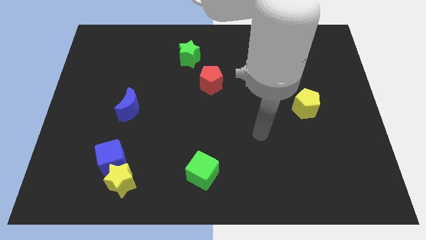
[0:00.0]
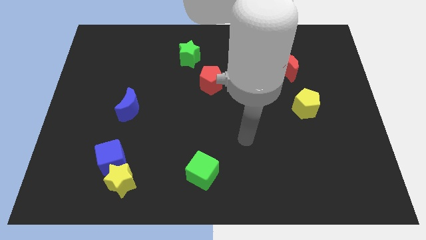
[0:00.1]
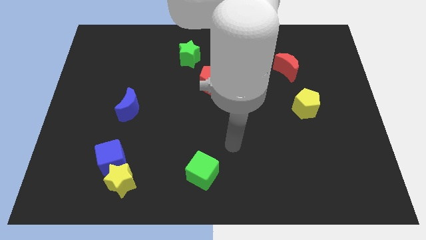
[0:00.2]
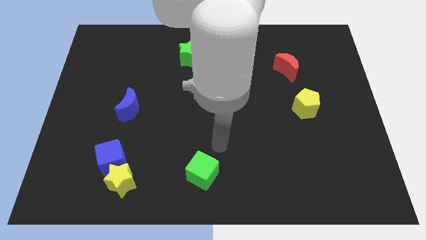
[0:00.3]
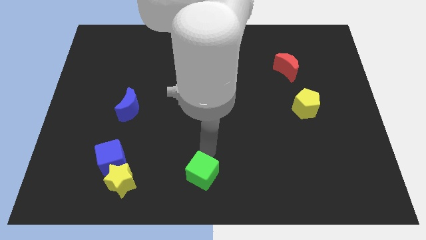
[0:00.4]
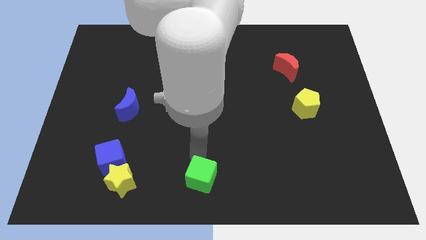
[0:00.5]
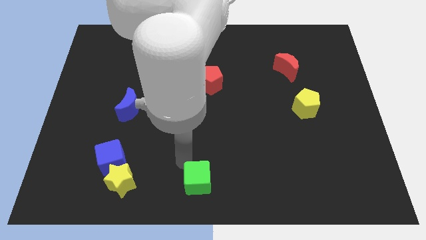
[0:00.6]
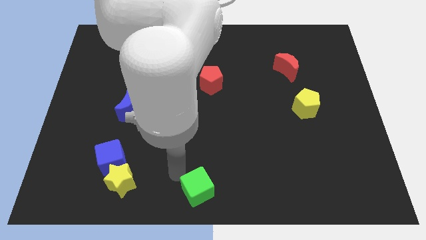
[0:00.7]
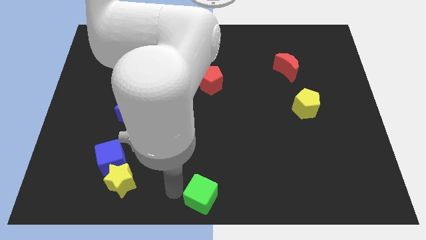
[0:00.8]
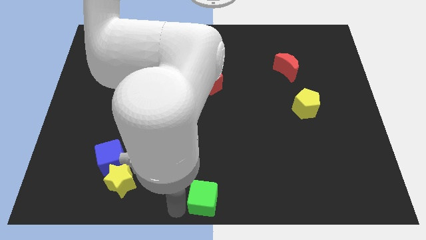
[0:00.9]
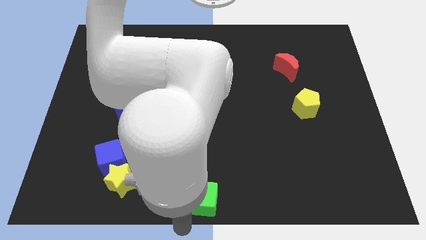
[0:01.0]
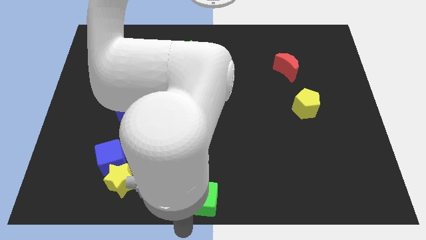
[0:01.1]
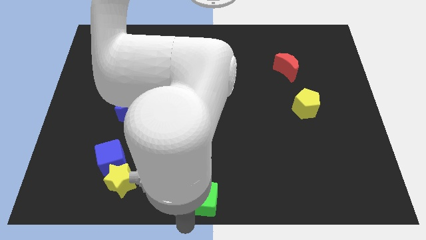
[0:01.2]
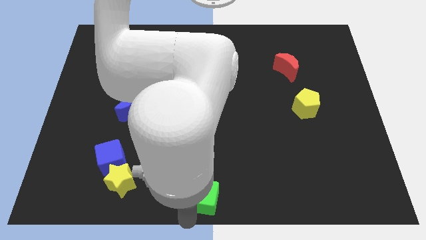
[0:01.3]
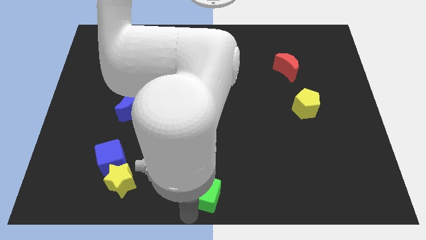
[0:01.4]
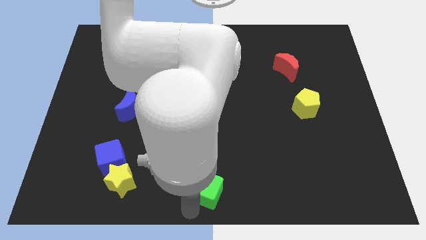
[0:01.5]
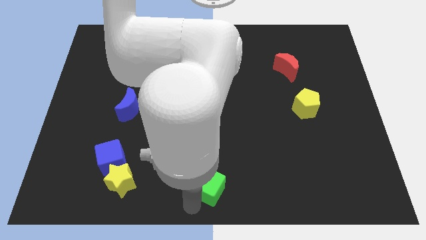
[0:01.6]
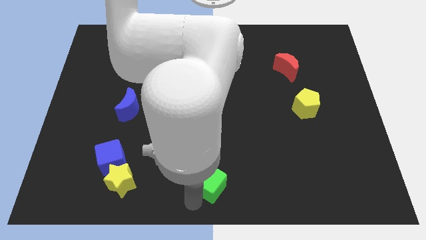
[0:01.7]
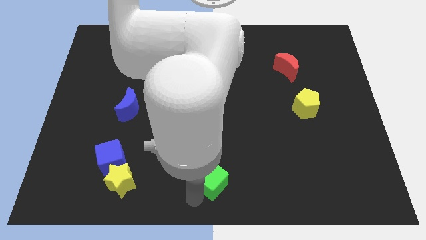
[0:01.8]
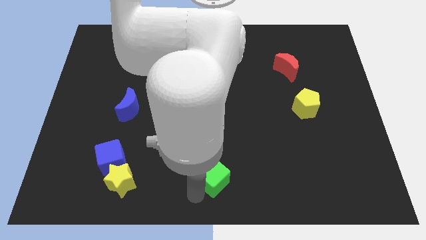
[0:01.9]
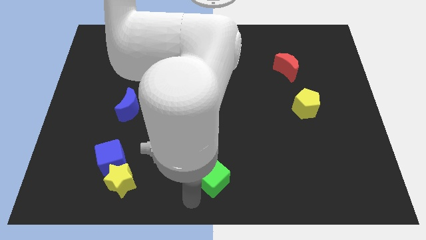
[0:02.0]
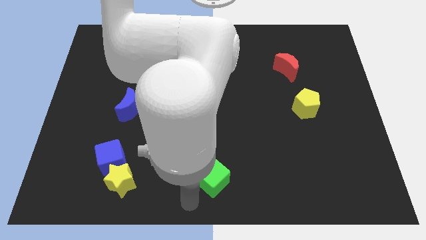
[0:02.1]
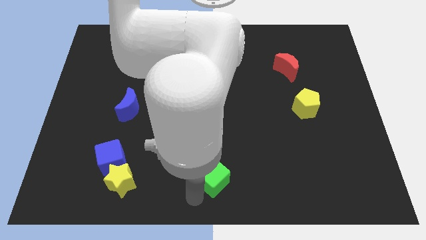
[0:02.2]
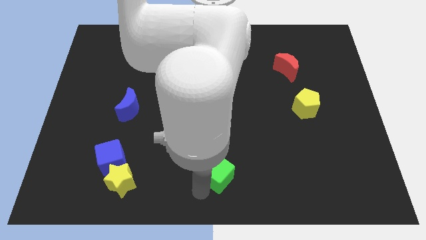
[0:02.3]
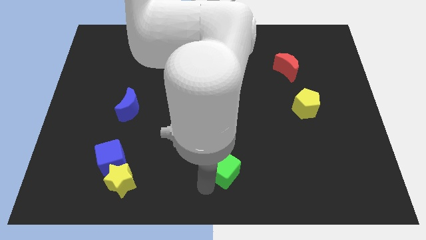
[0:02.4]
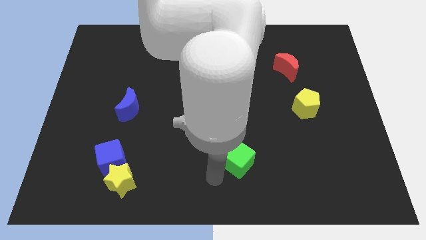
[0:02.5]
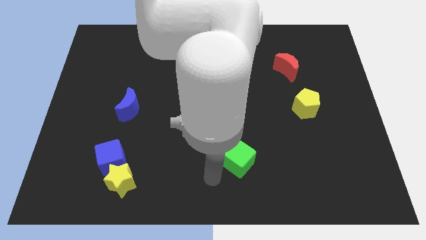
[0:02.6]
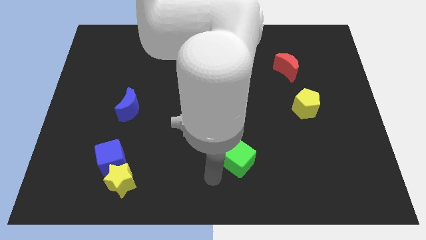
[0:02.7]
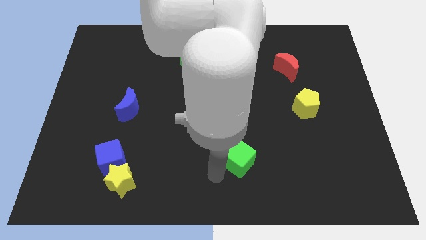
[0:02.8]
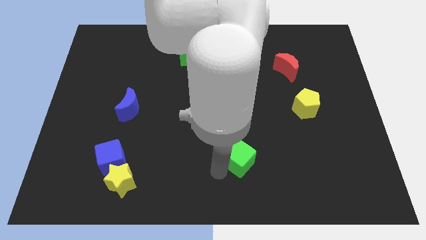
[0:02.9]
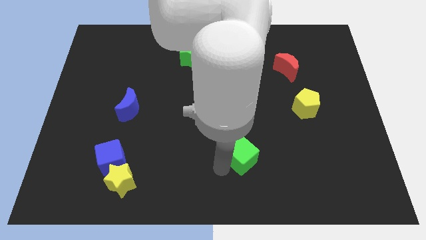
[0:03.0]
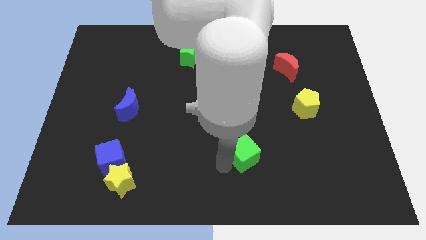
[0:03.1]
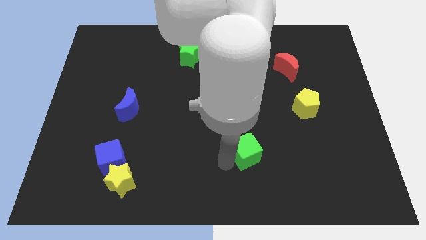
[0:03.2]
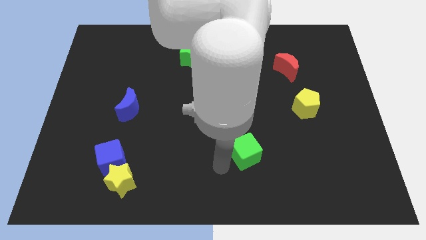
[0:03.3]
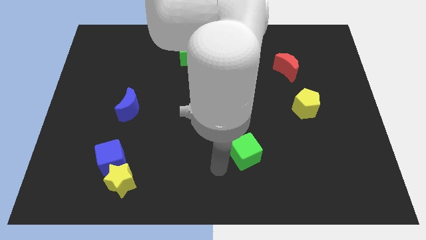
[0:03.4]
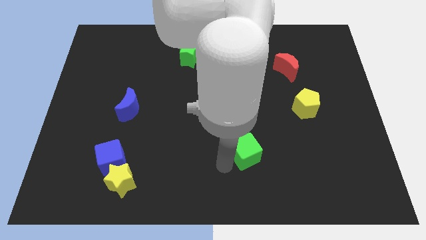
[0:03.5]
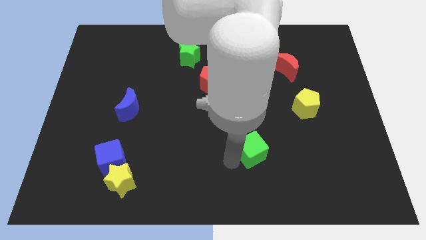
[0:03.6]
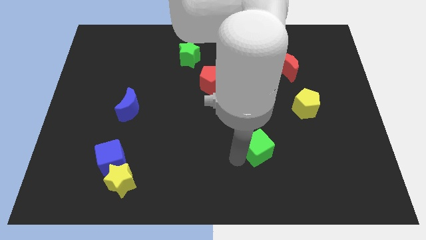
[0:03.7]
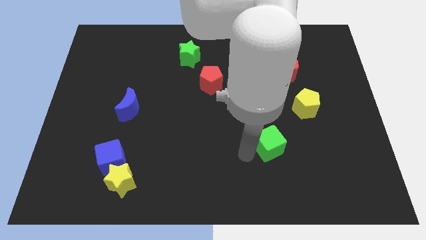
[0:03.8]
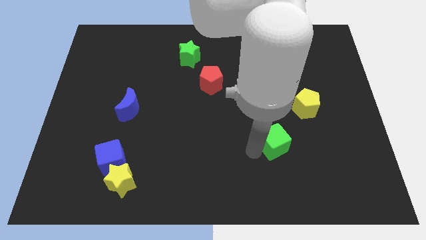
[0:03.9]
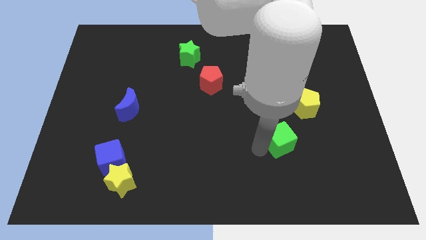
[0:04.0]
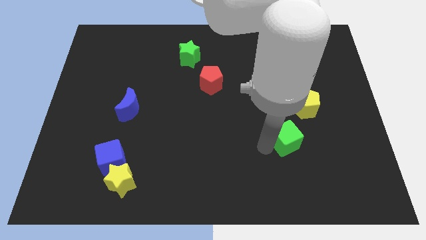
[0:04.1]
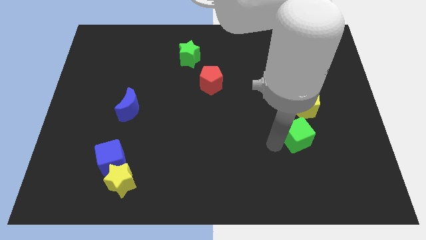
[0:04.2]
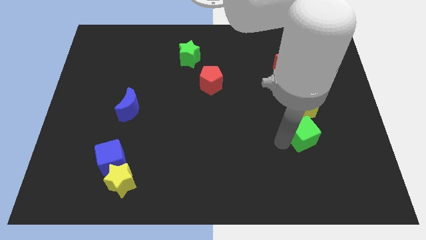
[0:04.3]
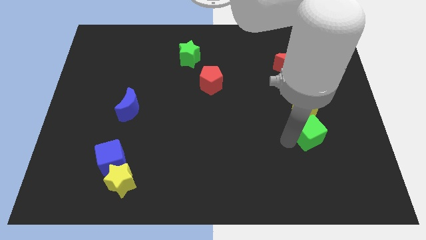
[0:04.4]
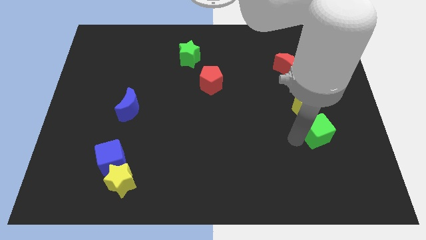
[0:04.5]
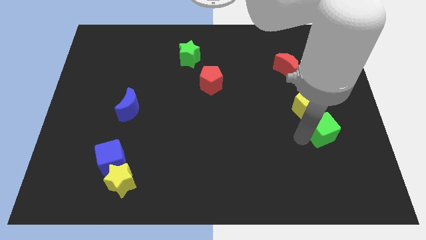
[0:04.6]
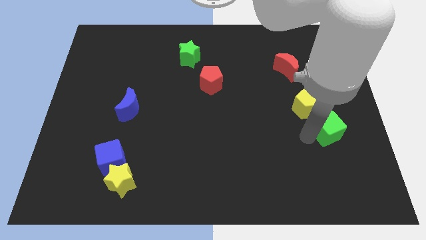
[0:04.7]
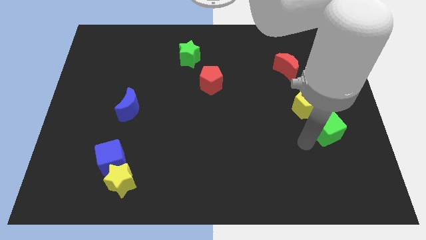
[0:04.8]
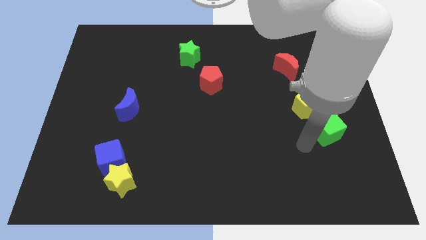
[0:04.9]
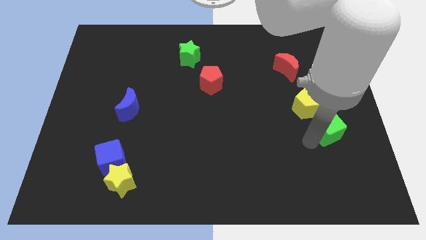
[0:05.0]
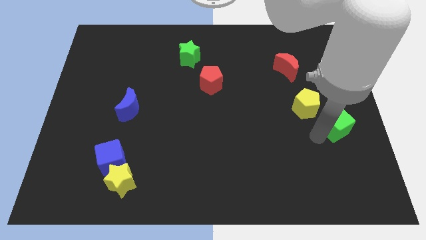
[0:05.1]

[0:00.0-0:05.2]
slide the green cube to the right side

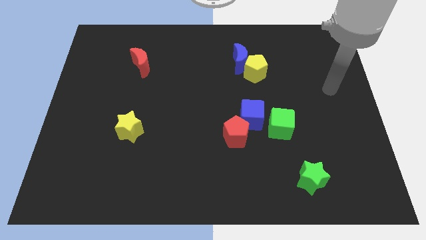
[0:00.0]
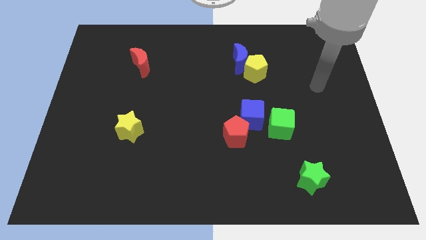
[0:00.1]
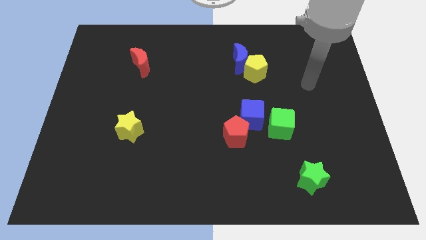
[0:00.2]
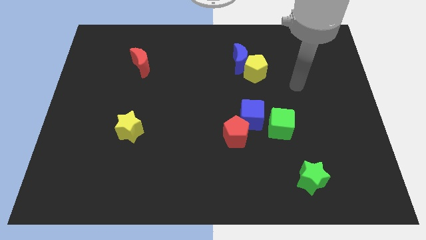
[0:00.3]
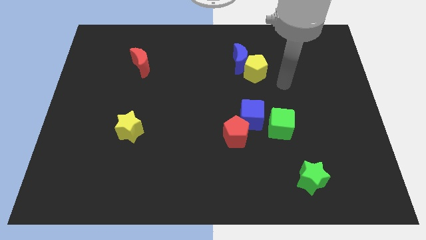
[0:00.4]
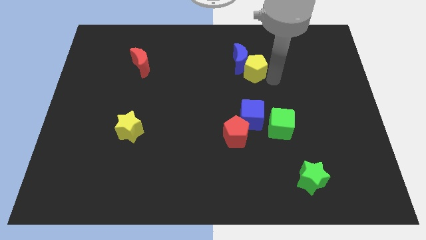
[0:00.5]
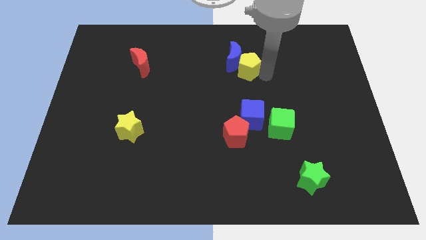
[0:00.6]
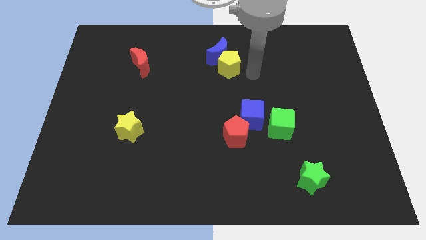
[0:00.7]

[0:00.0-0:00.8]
put the blue moon to the top side
